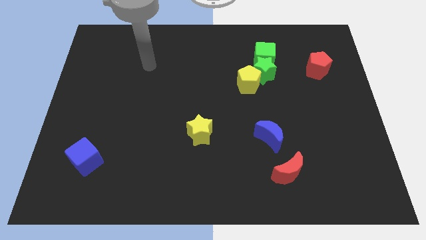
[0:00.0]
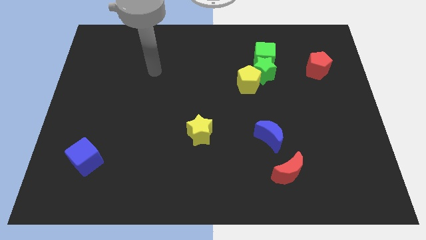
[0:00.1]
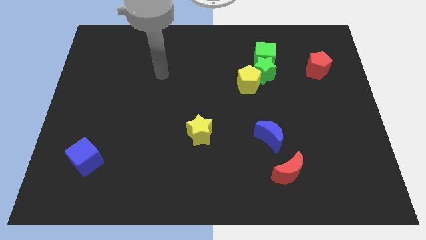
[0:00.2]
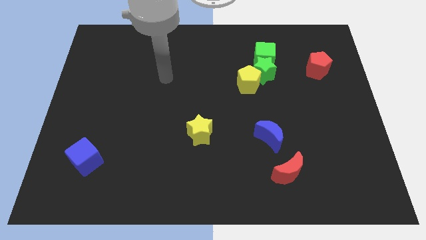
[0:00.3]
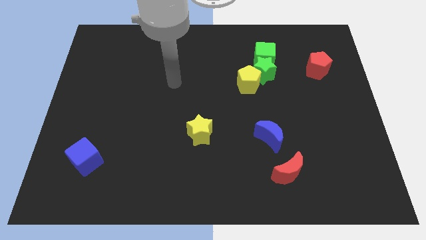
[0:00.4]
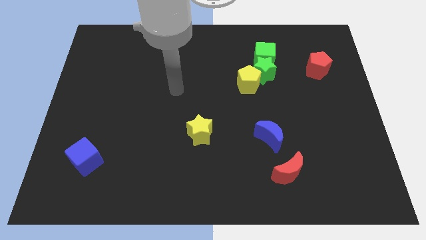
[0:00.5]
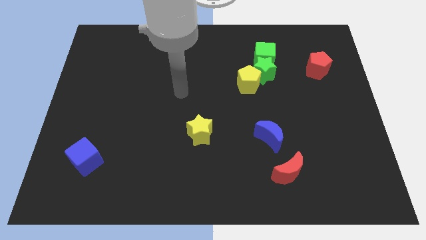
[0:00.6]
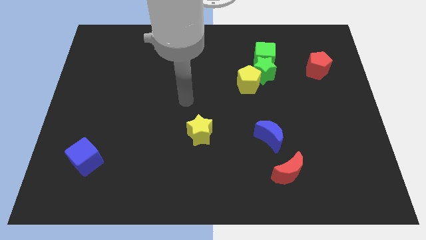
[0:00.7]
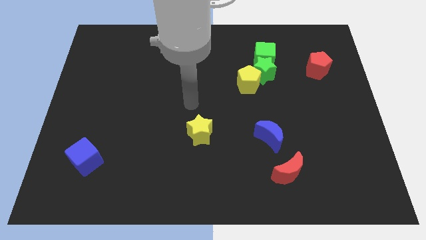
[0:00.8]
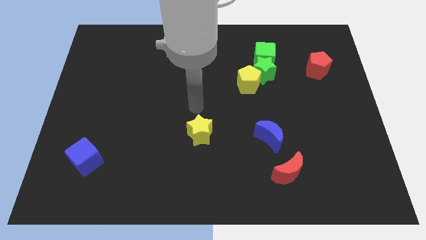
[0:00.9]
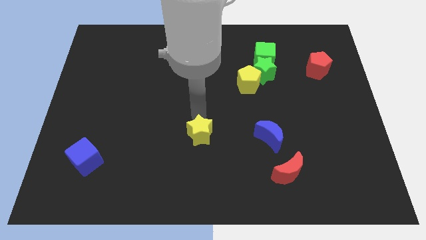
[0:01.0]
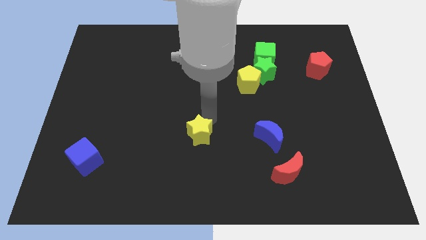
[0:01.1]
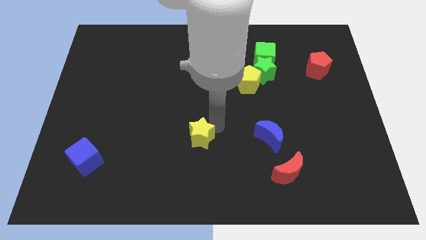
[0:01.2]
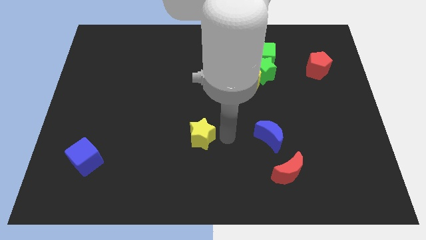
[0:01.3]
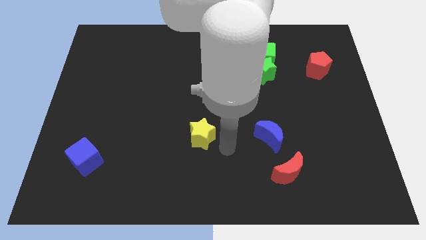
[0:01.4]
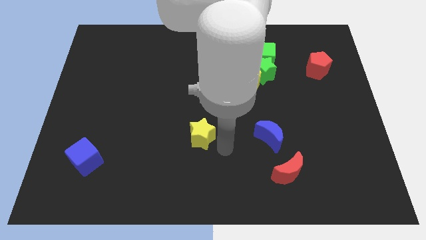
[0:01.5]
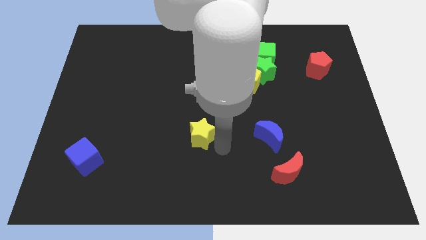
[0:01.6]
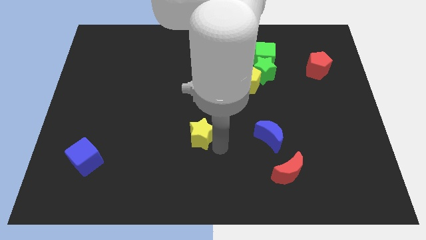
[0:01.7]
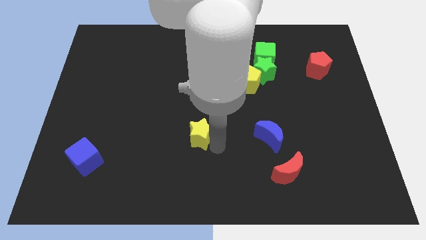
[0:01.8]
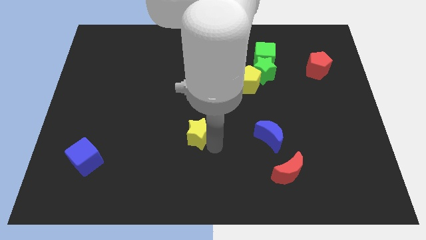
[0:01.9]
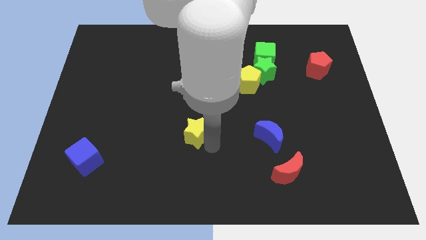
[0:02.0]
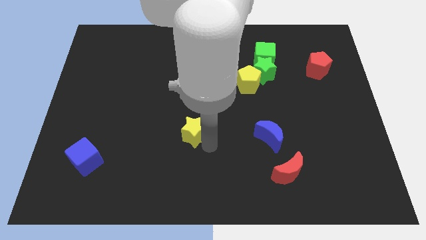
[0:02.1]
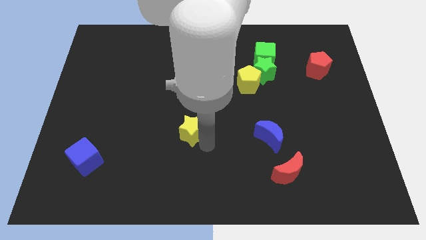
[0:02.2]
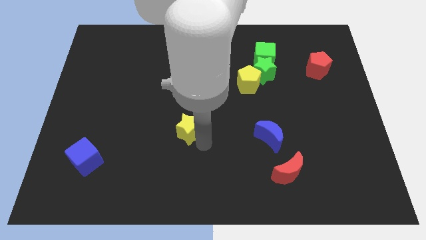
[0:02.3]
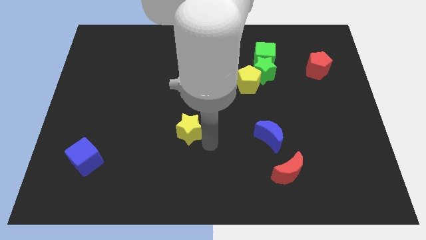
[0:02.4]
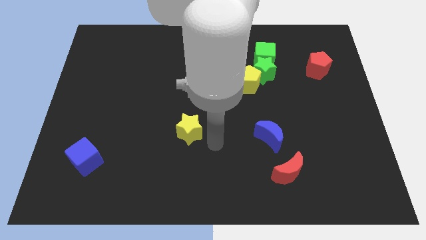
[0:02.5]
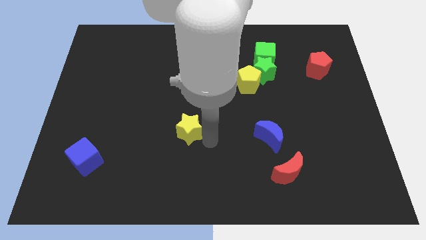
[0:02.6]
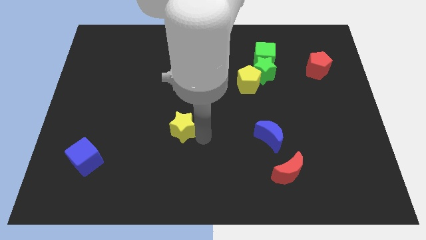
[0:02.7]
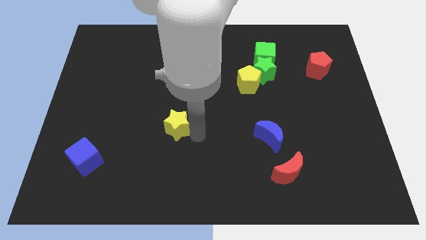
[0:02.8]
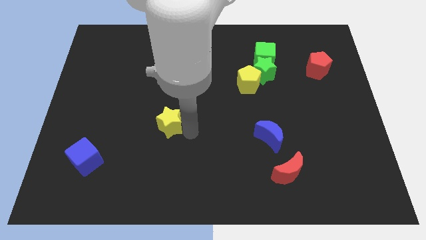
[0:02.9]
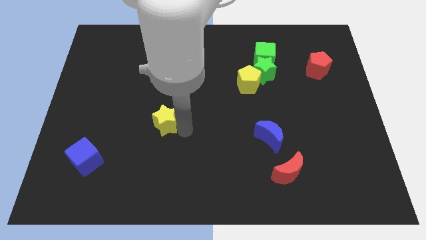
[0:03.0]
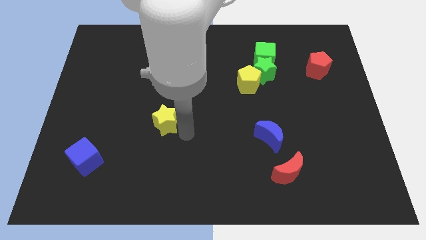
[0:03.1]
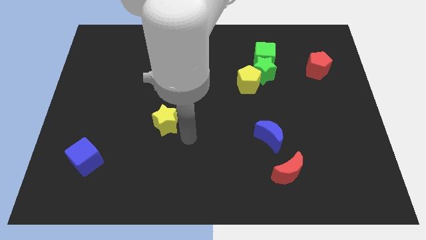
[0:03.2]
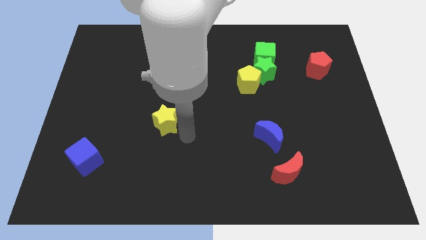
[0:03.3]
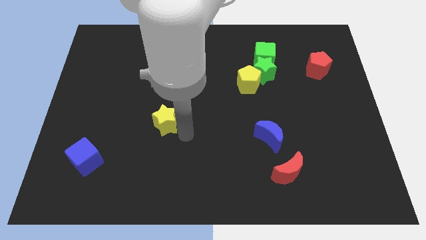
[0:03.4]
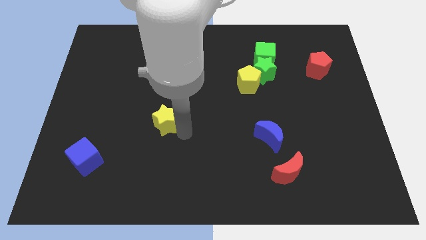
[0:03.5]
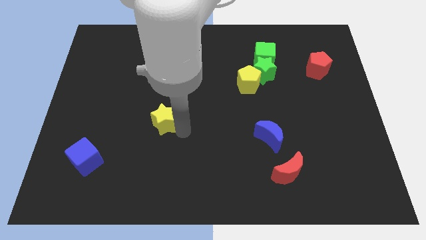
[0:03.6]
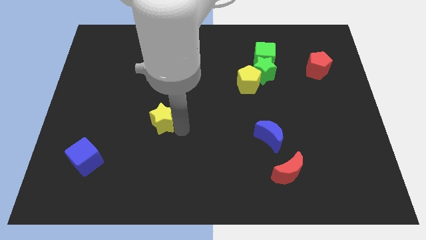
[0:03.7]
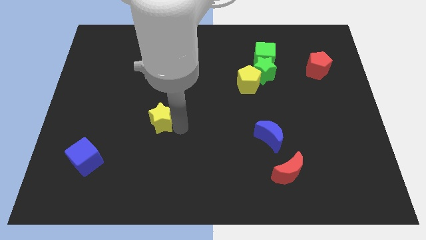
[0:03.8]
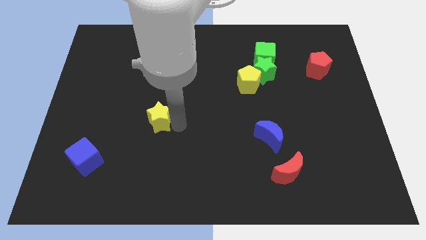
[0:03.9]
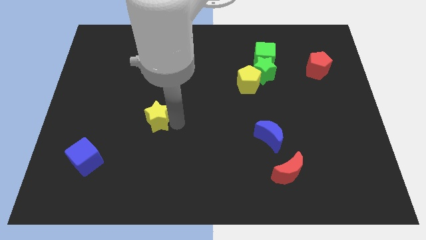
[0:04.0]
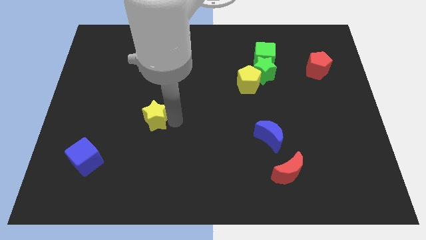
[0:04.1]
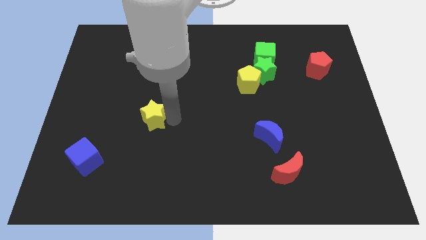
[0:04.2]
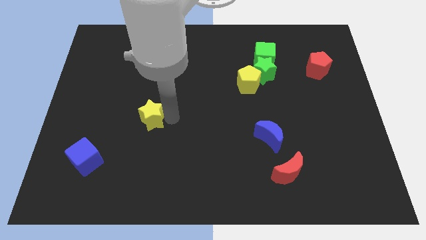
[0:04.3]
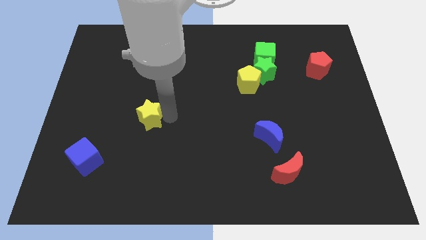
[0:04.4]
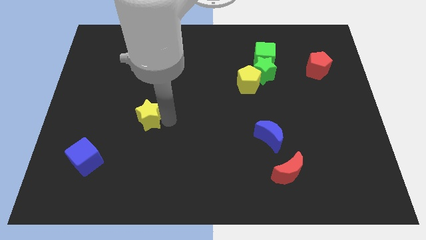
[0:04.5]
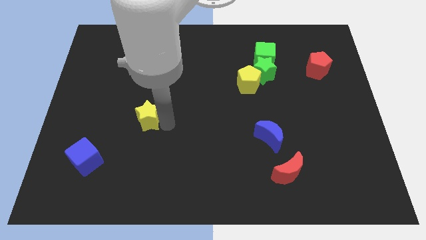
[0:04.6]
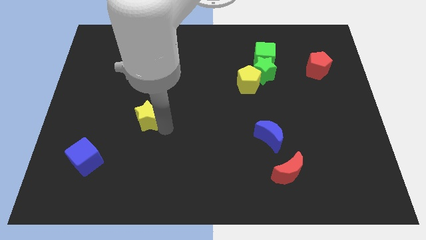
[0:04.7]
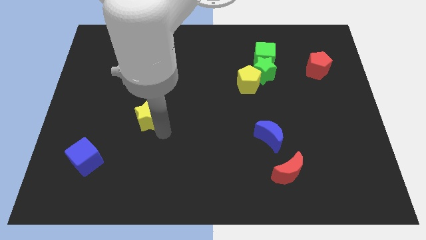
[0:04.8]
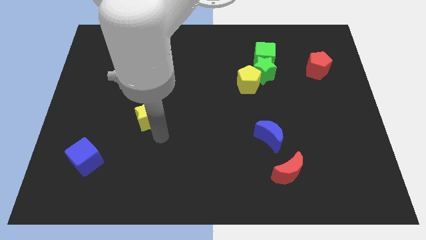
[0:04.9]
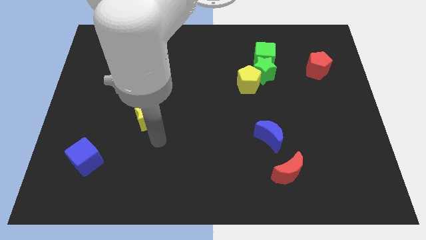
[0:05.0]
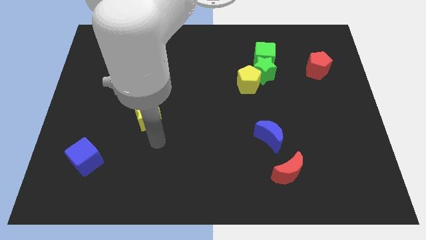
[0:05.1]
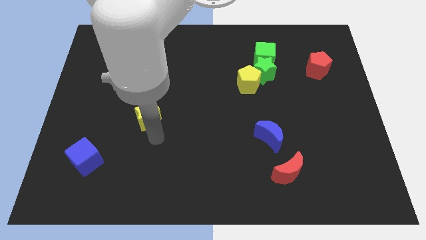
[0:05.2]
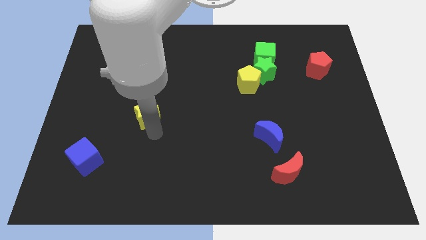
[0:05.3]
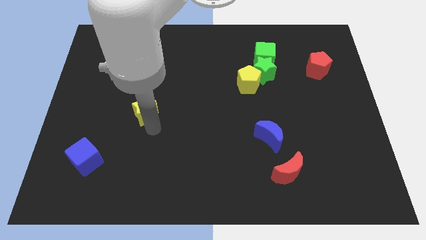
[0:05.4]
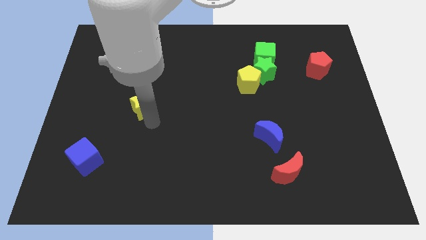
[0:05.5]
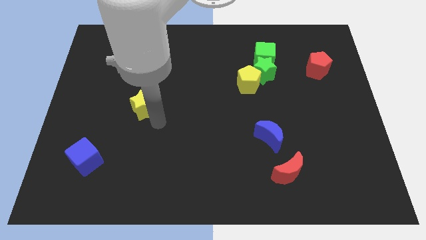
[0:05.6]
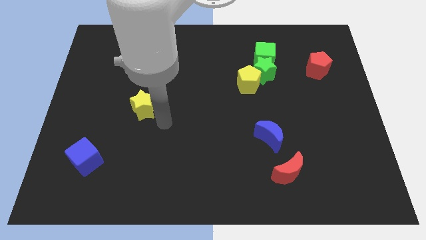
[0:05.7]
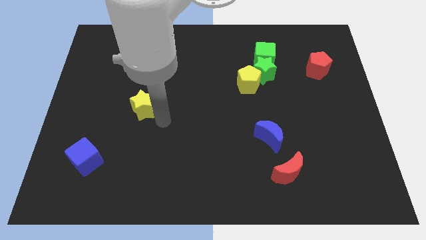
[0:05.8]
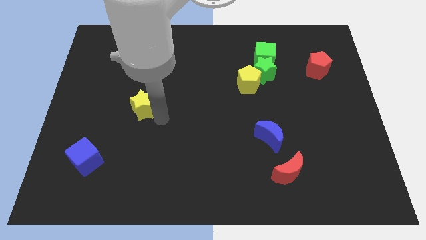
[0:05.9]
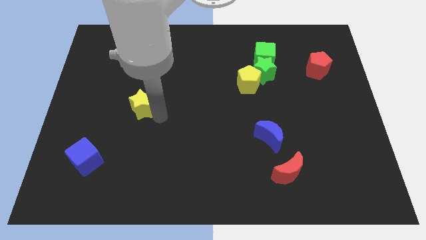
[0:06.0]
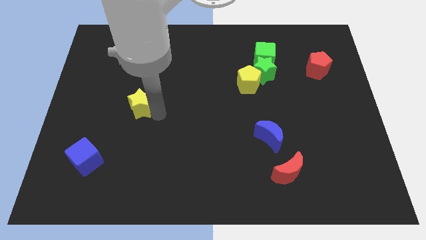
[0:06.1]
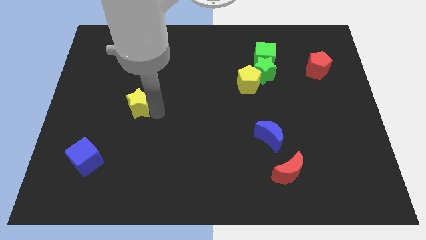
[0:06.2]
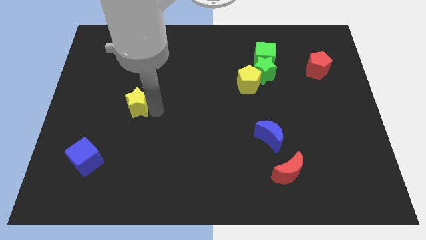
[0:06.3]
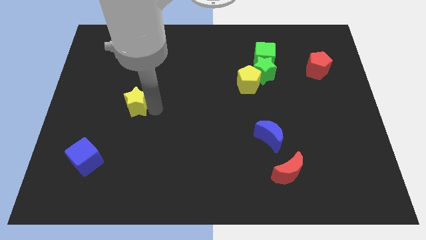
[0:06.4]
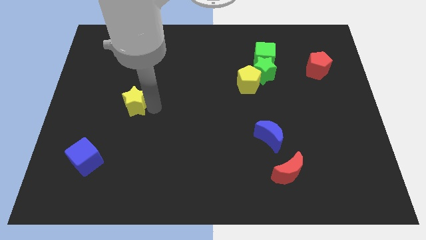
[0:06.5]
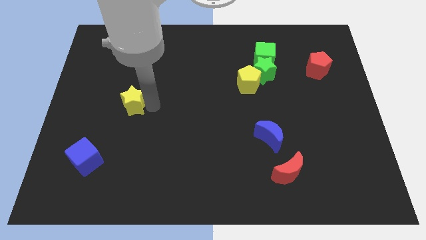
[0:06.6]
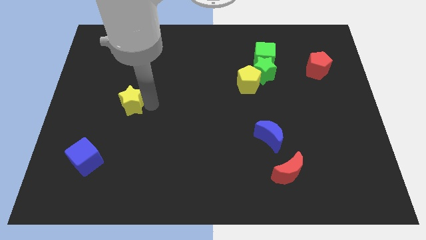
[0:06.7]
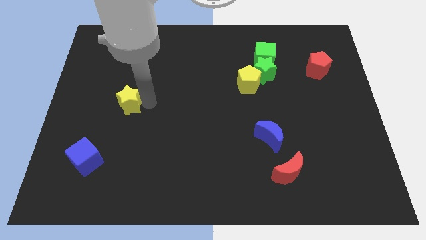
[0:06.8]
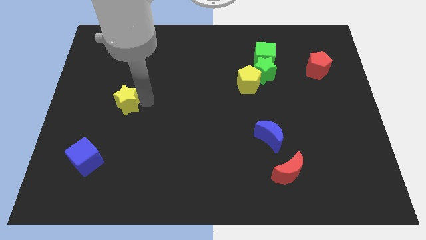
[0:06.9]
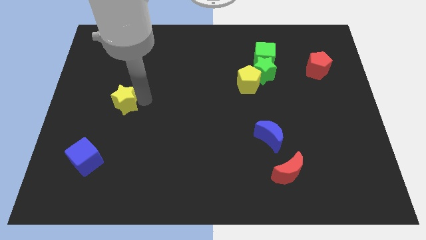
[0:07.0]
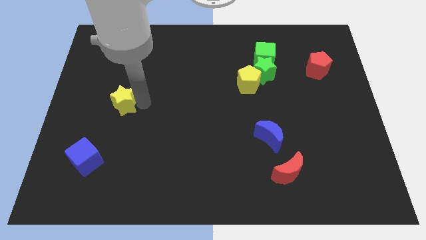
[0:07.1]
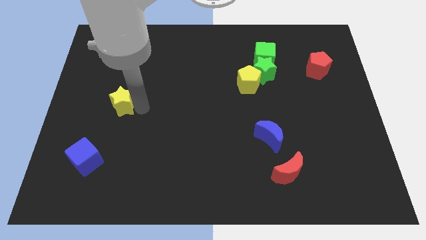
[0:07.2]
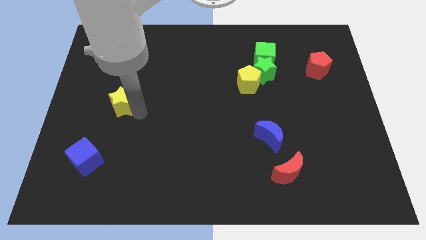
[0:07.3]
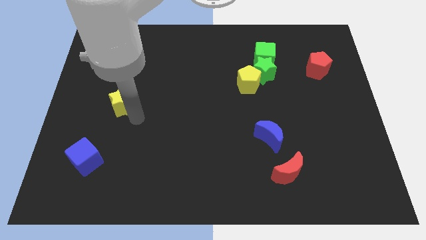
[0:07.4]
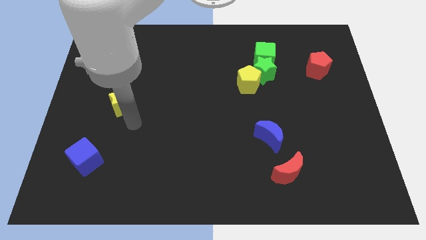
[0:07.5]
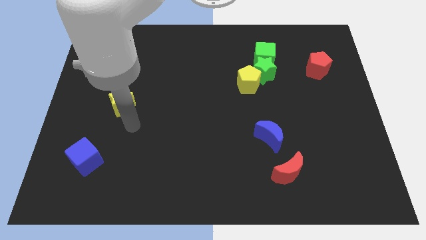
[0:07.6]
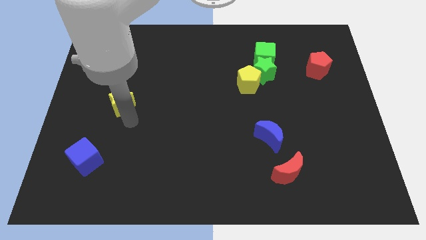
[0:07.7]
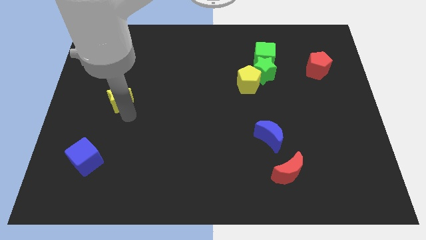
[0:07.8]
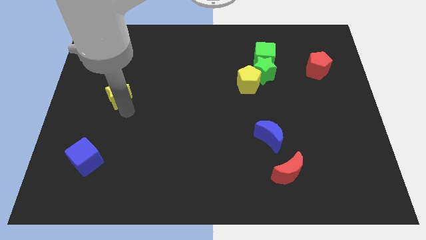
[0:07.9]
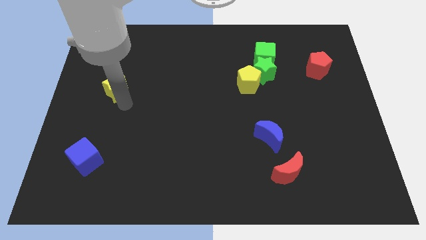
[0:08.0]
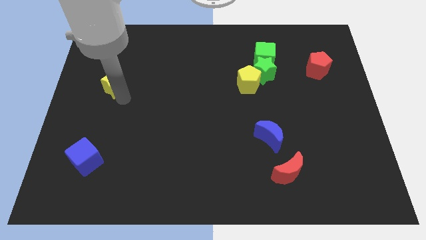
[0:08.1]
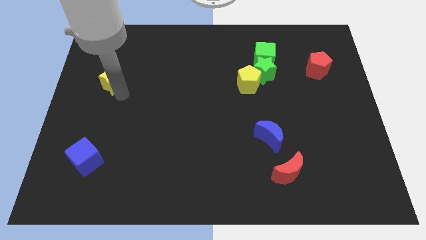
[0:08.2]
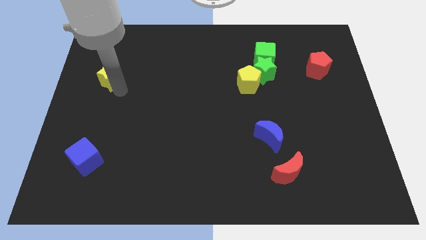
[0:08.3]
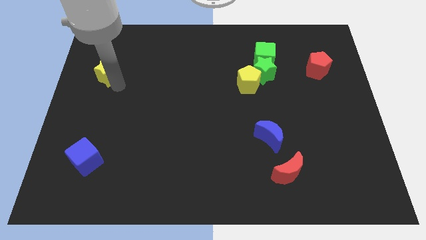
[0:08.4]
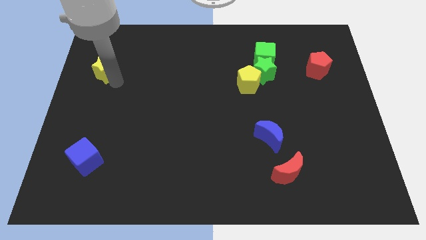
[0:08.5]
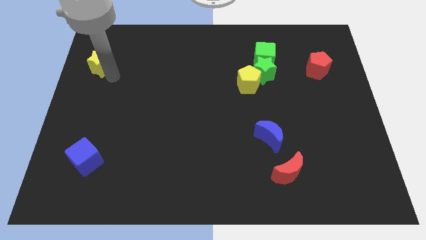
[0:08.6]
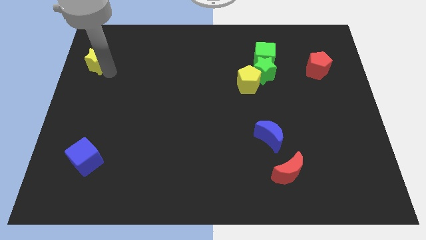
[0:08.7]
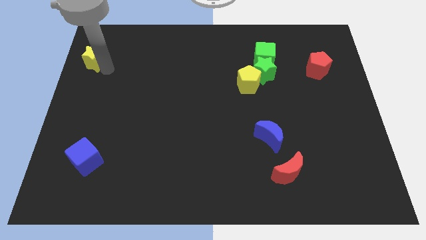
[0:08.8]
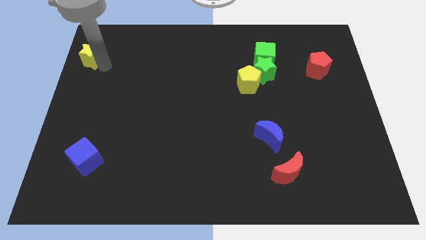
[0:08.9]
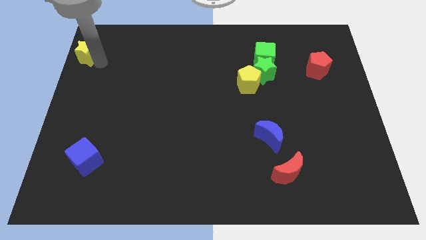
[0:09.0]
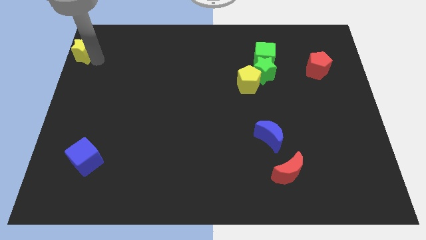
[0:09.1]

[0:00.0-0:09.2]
move the yellow star to the top left of the board
